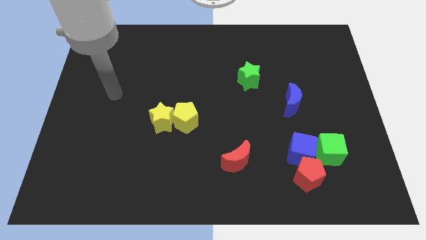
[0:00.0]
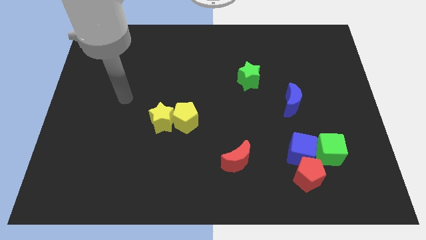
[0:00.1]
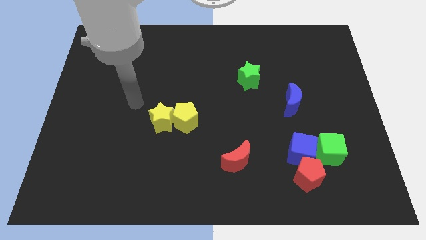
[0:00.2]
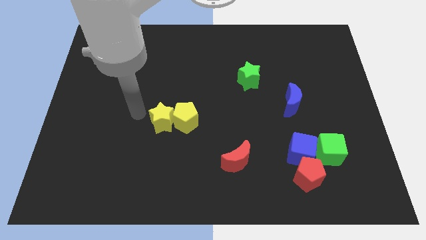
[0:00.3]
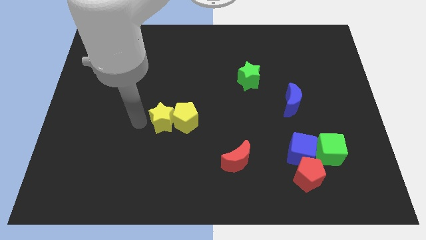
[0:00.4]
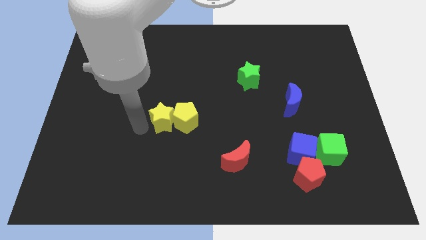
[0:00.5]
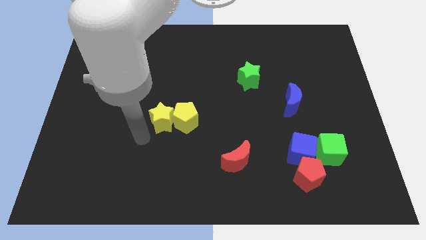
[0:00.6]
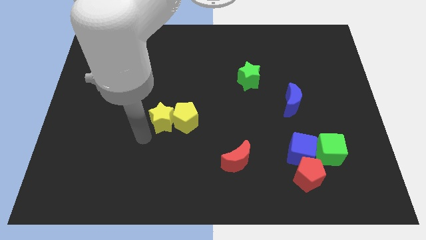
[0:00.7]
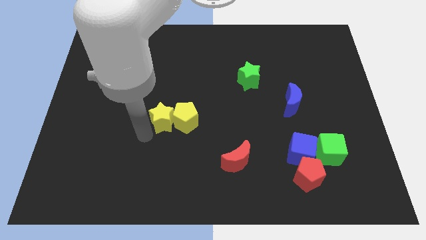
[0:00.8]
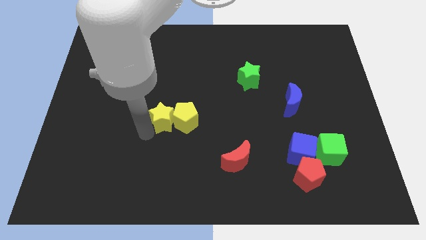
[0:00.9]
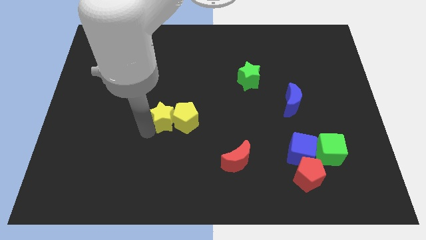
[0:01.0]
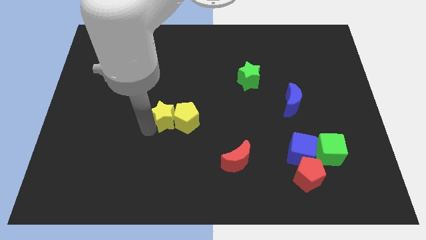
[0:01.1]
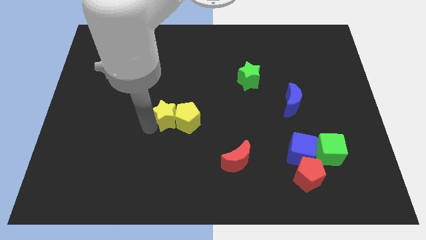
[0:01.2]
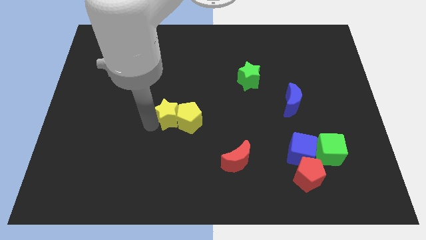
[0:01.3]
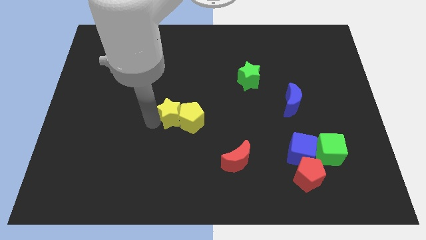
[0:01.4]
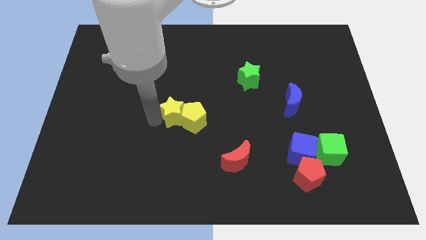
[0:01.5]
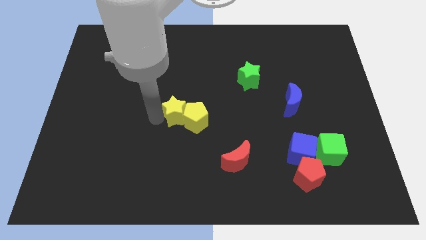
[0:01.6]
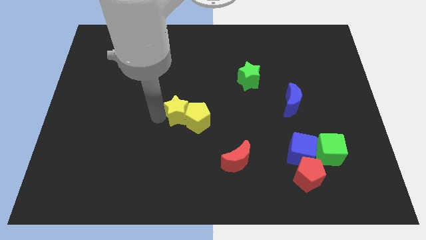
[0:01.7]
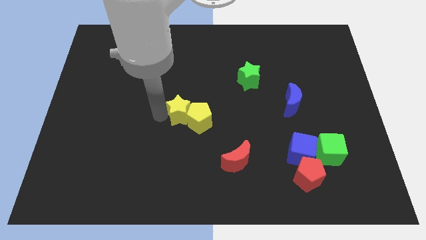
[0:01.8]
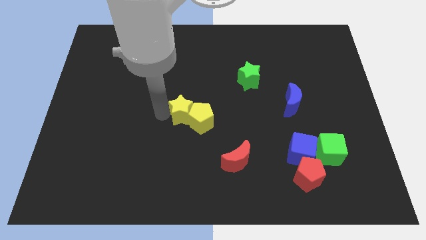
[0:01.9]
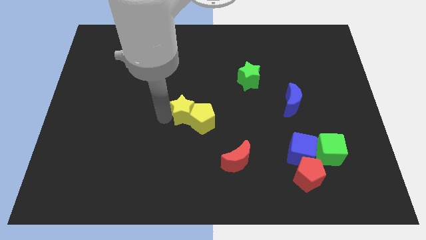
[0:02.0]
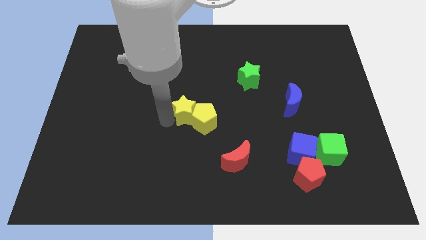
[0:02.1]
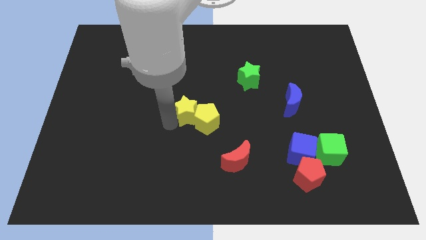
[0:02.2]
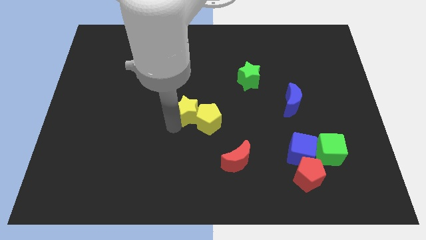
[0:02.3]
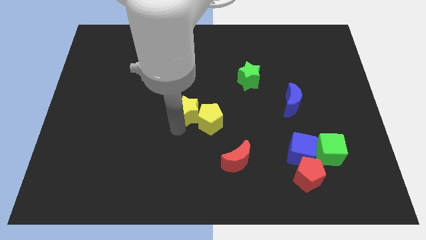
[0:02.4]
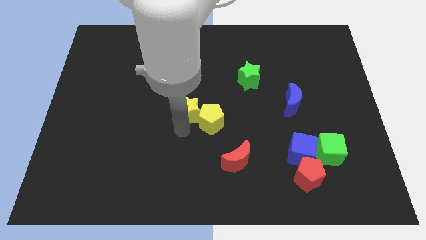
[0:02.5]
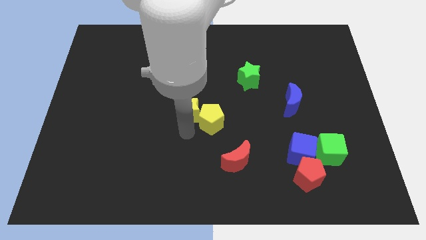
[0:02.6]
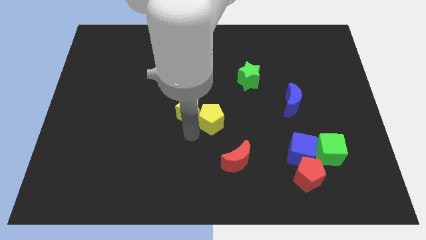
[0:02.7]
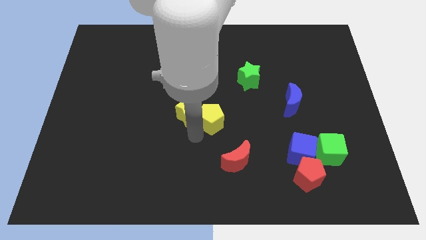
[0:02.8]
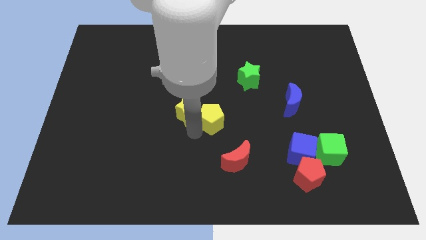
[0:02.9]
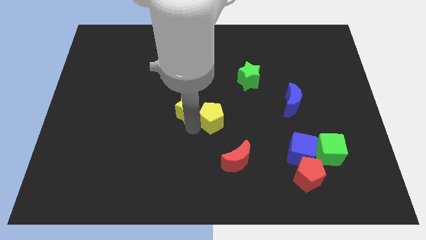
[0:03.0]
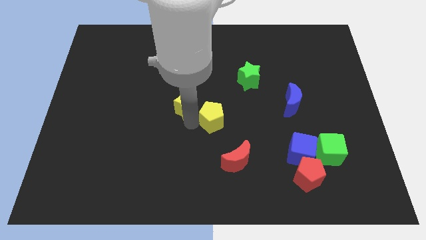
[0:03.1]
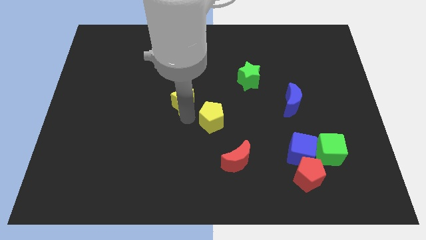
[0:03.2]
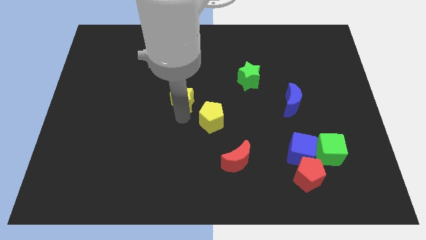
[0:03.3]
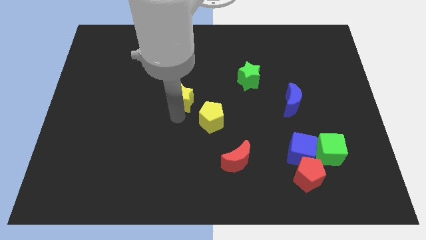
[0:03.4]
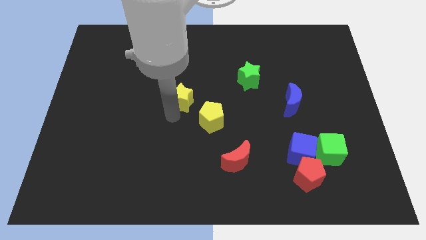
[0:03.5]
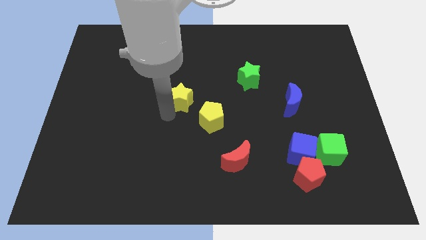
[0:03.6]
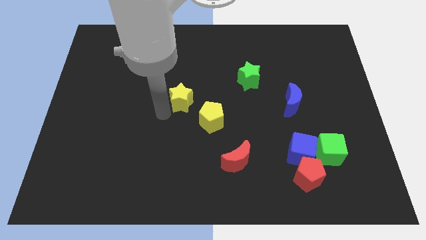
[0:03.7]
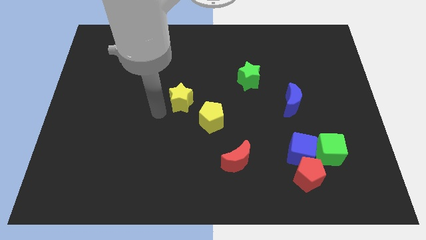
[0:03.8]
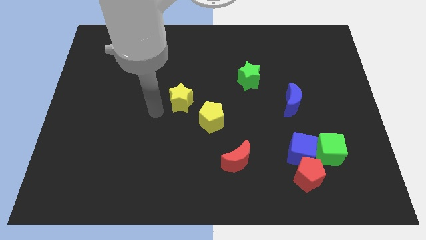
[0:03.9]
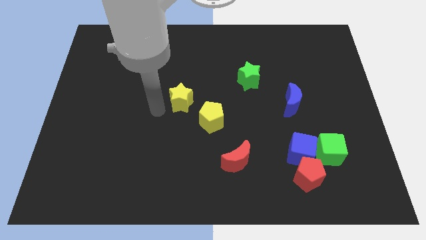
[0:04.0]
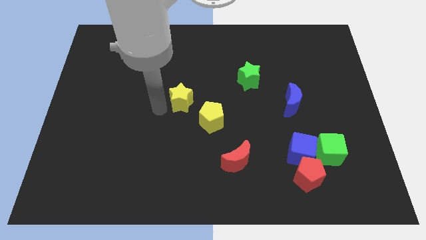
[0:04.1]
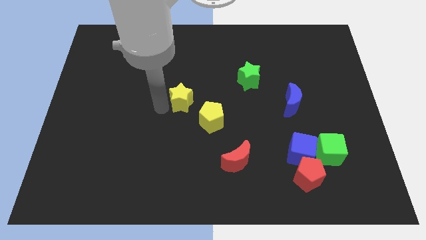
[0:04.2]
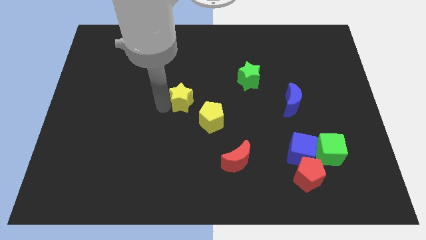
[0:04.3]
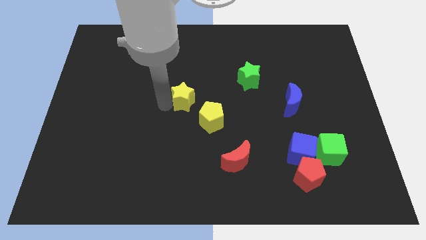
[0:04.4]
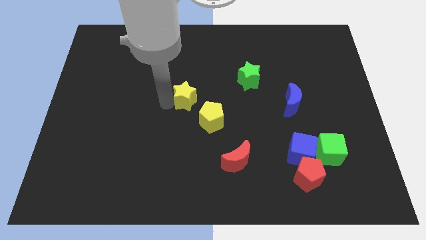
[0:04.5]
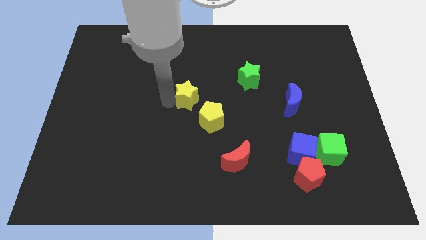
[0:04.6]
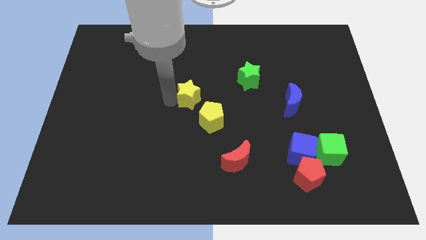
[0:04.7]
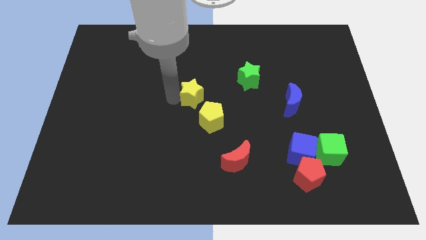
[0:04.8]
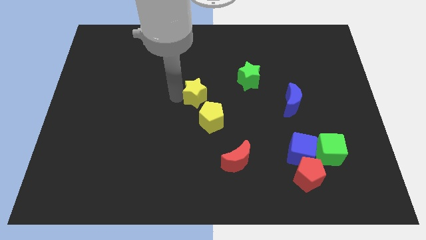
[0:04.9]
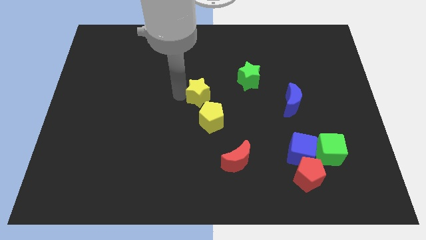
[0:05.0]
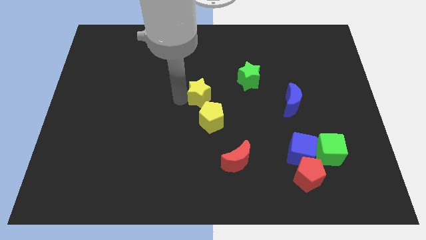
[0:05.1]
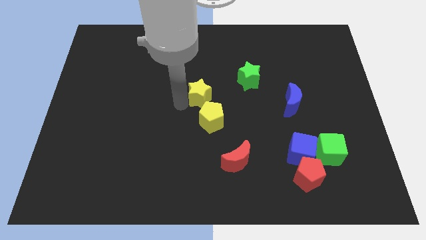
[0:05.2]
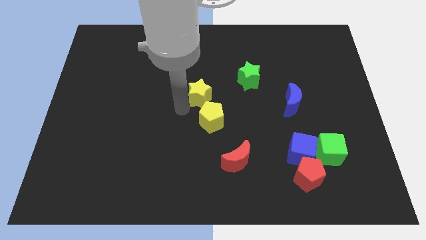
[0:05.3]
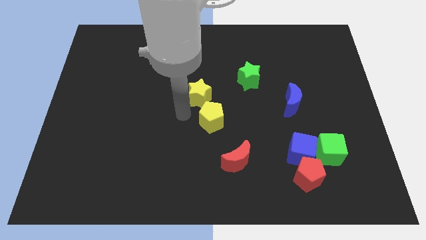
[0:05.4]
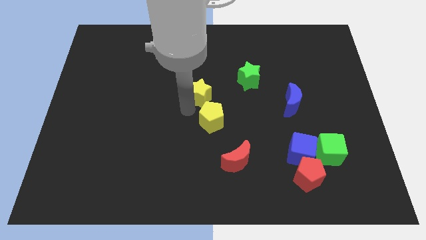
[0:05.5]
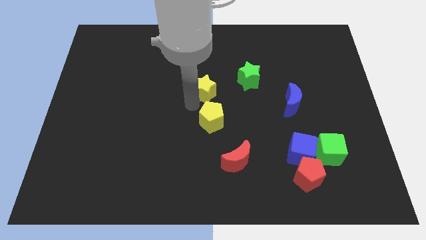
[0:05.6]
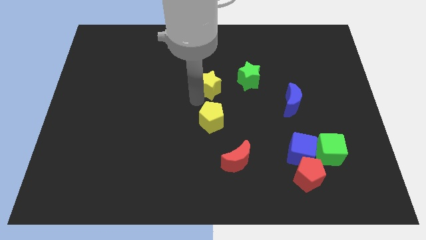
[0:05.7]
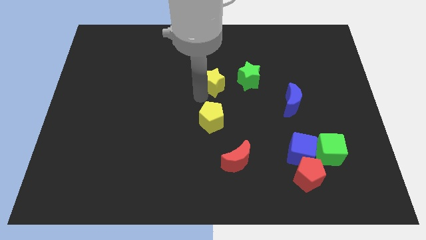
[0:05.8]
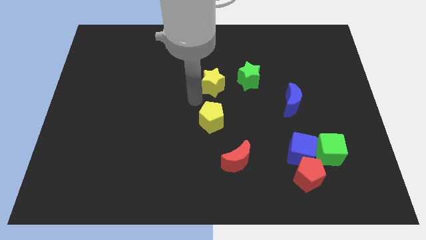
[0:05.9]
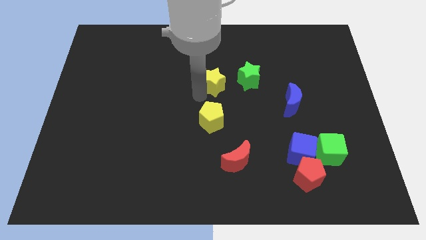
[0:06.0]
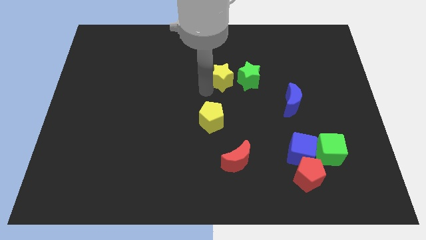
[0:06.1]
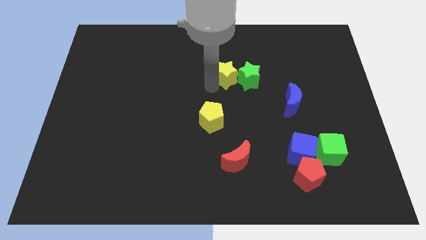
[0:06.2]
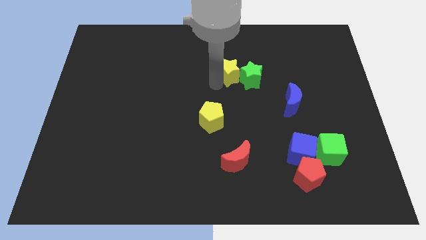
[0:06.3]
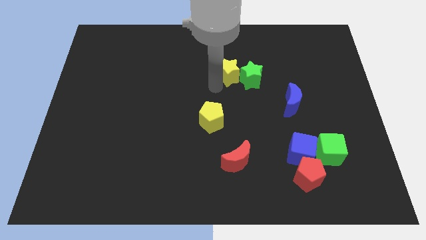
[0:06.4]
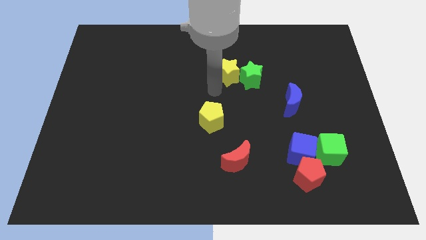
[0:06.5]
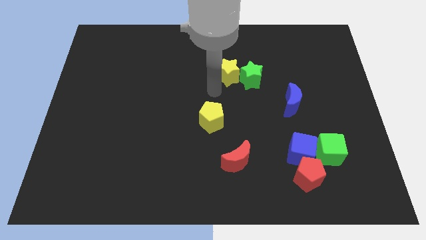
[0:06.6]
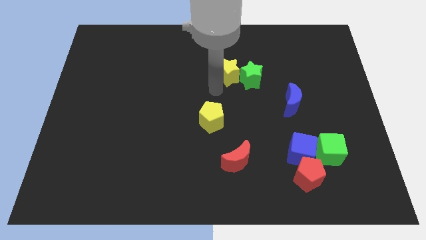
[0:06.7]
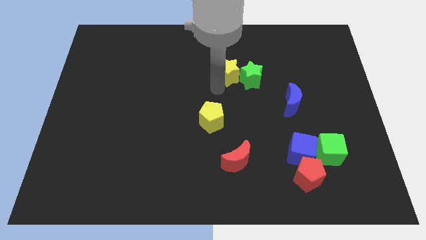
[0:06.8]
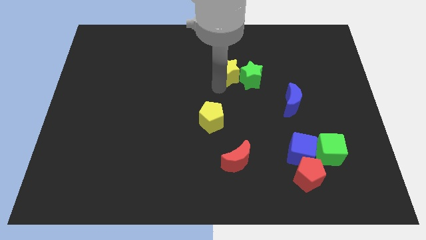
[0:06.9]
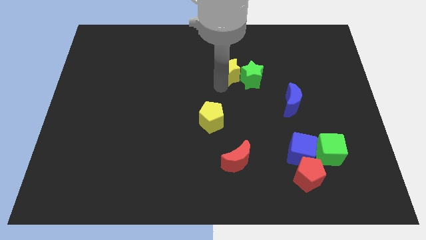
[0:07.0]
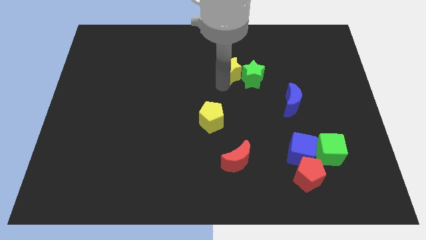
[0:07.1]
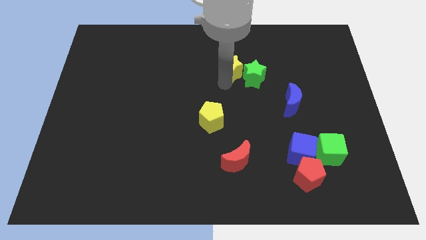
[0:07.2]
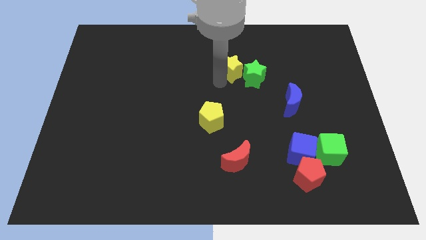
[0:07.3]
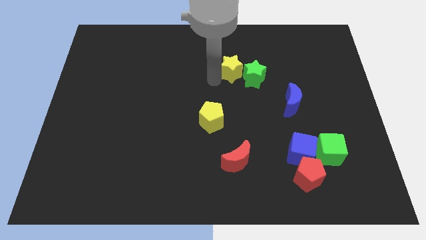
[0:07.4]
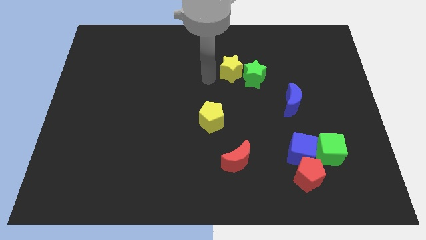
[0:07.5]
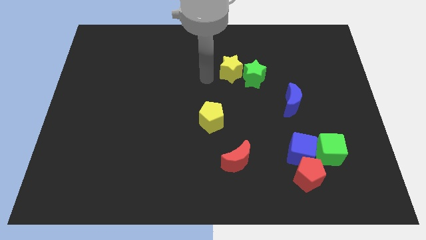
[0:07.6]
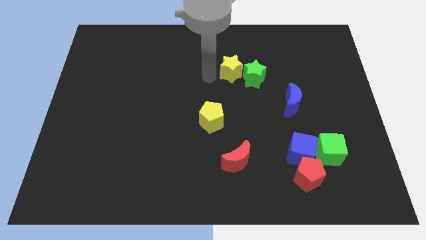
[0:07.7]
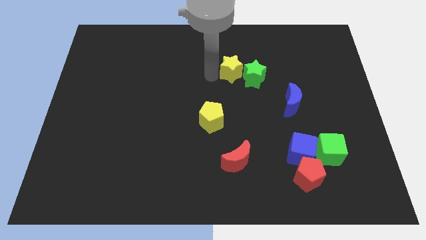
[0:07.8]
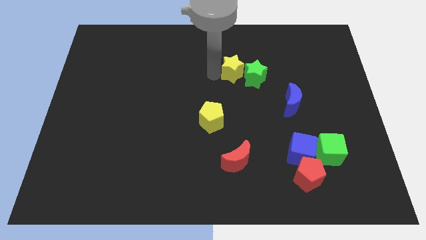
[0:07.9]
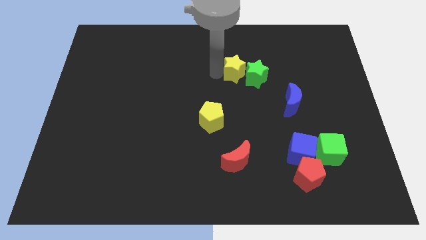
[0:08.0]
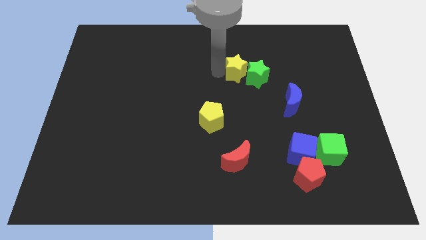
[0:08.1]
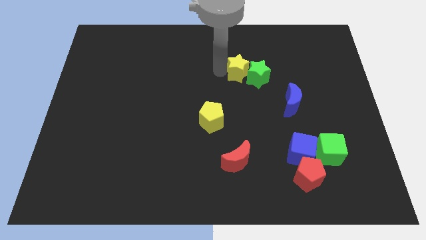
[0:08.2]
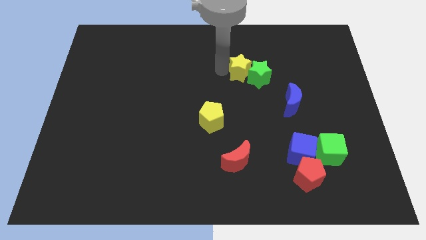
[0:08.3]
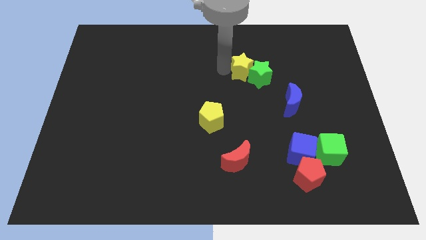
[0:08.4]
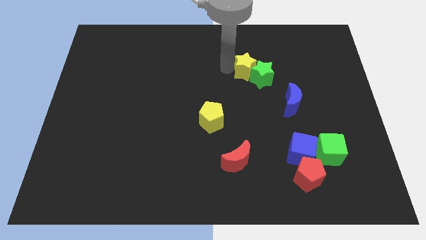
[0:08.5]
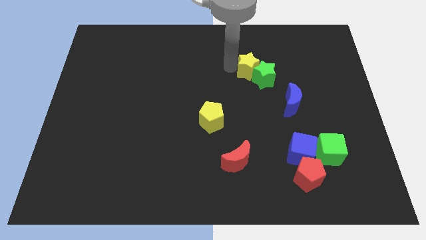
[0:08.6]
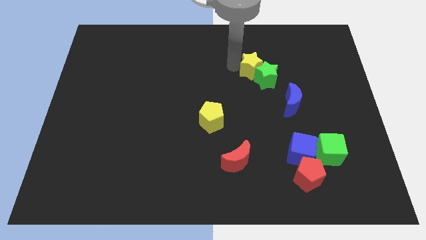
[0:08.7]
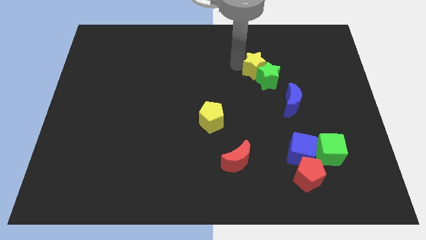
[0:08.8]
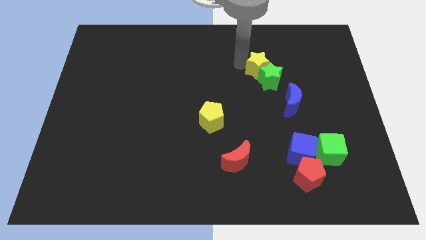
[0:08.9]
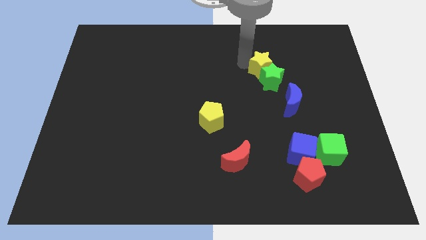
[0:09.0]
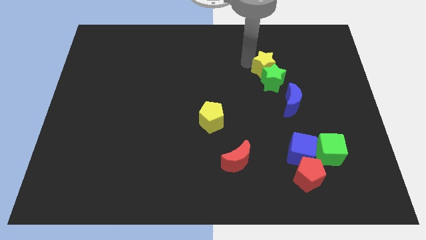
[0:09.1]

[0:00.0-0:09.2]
put the yellow star diagonally up and to the right of the green star
